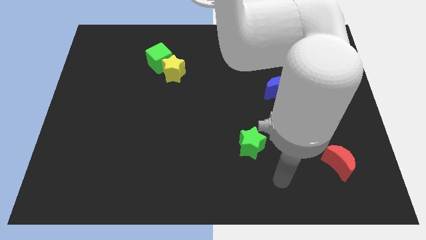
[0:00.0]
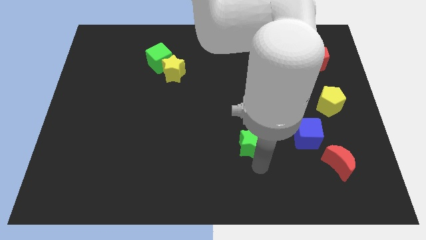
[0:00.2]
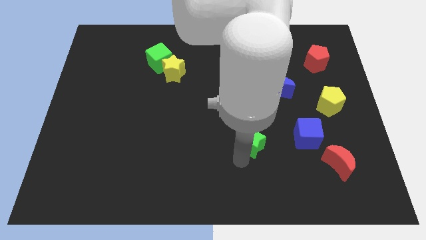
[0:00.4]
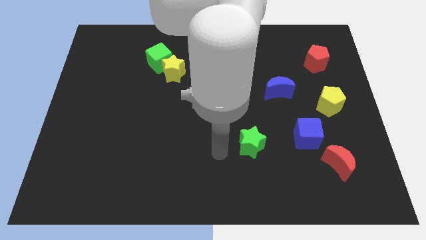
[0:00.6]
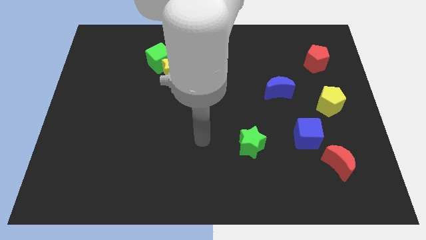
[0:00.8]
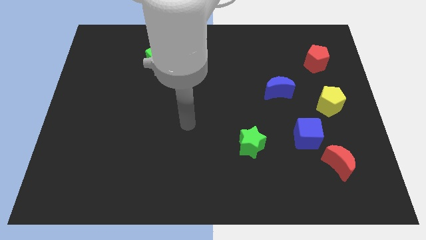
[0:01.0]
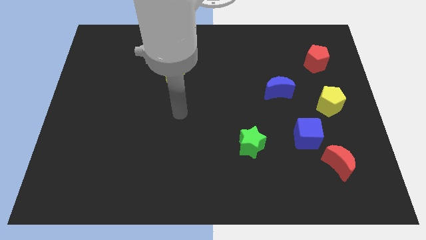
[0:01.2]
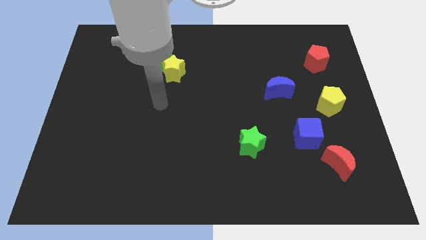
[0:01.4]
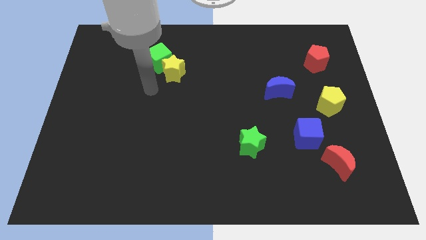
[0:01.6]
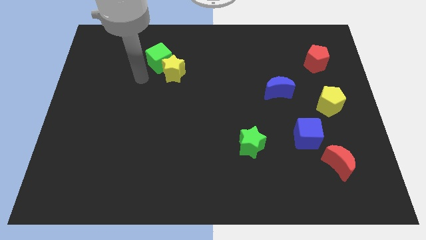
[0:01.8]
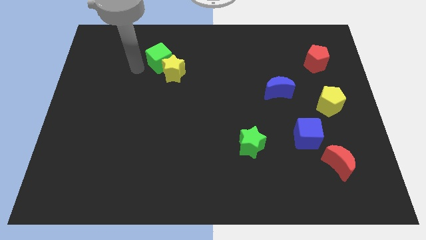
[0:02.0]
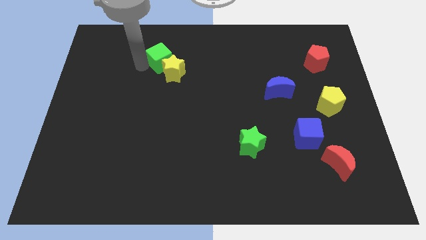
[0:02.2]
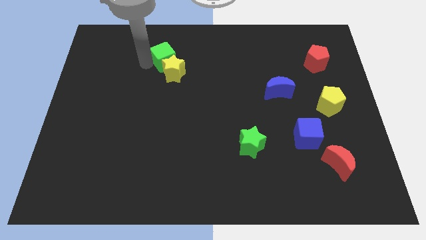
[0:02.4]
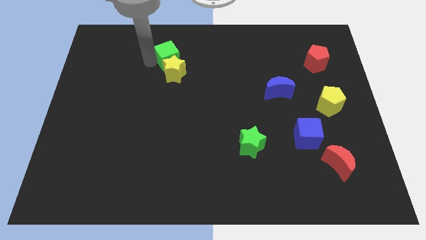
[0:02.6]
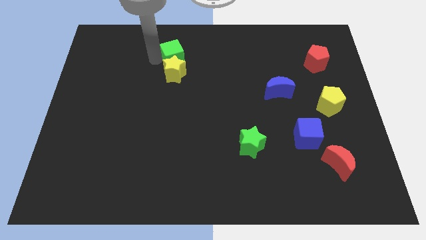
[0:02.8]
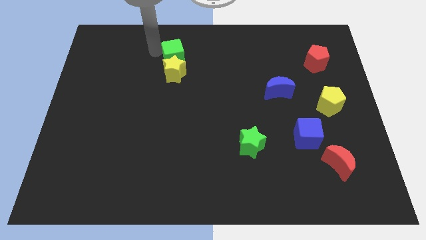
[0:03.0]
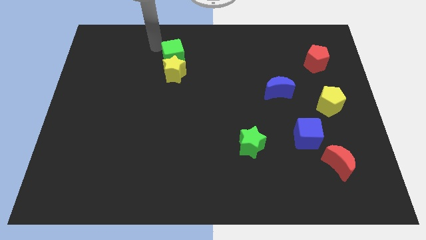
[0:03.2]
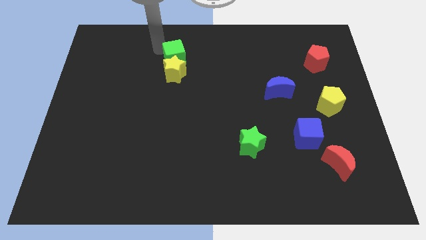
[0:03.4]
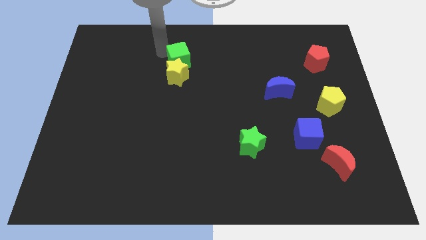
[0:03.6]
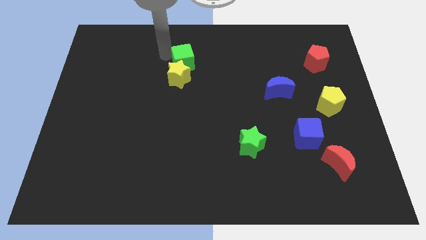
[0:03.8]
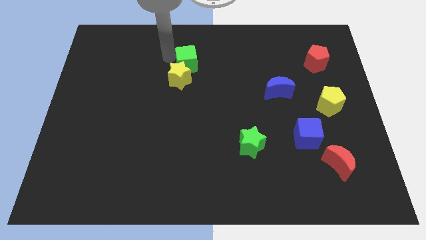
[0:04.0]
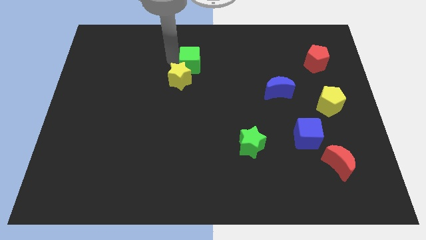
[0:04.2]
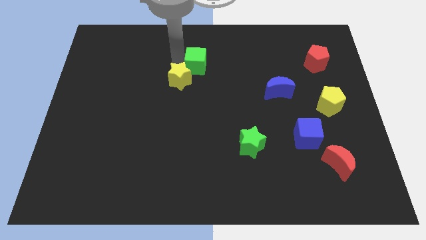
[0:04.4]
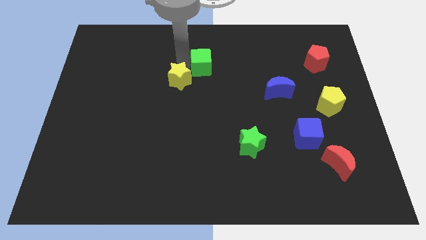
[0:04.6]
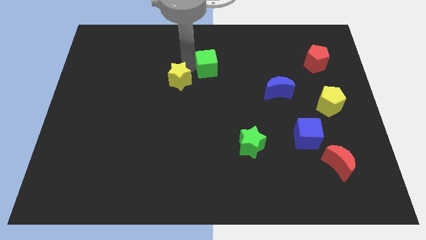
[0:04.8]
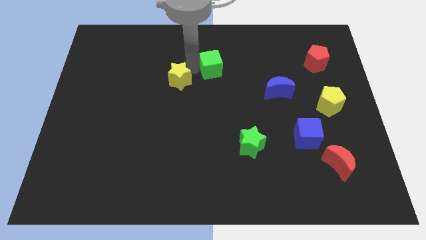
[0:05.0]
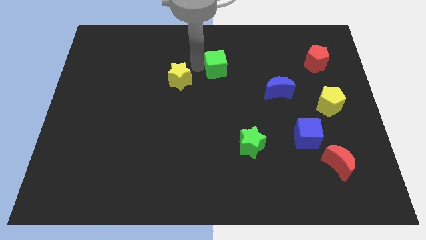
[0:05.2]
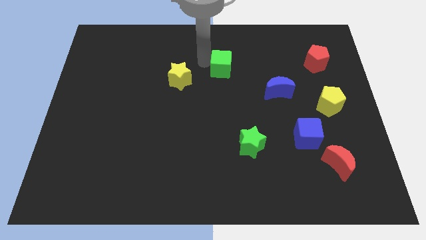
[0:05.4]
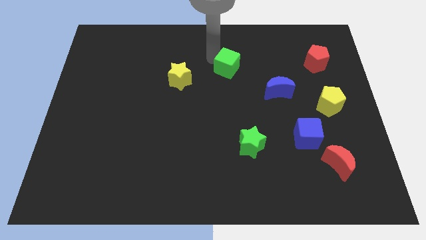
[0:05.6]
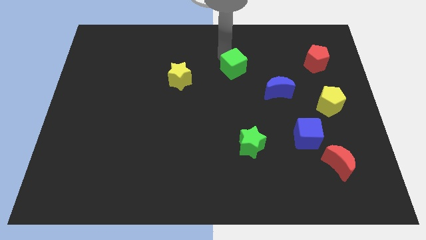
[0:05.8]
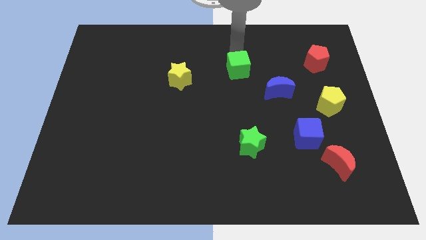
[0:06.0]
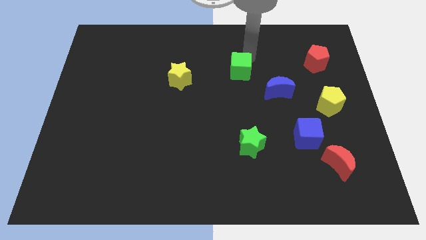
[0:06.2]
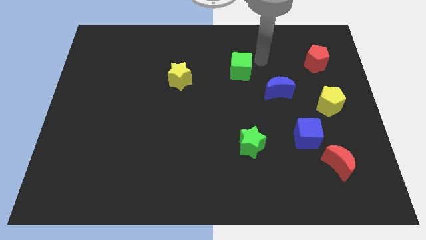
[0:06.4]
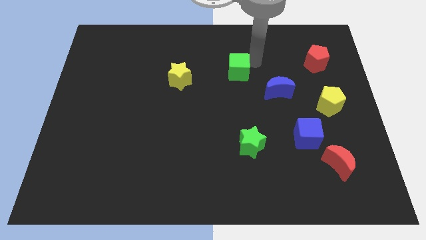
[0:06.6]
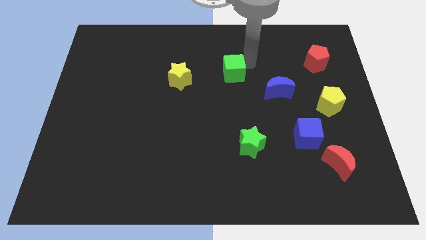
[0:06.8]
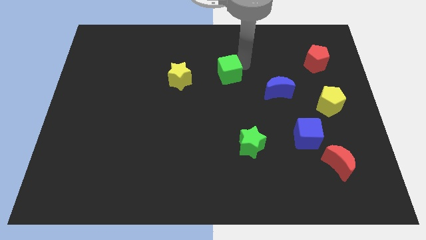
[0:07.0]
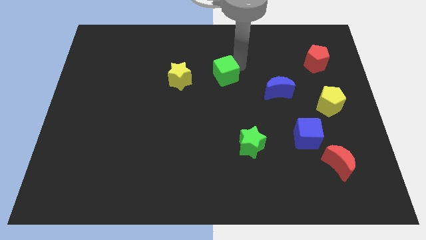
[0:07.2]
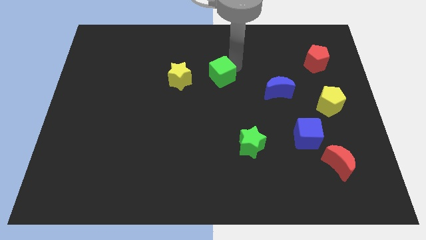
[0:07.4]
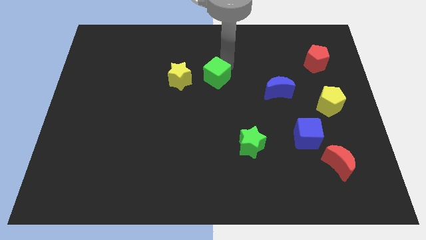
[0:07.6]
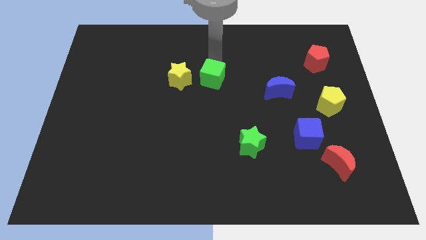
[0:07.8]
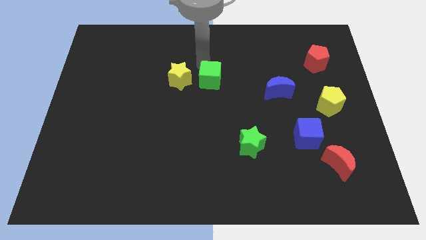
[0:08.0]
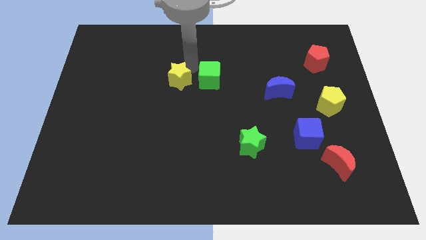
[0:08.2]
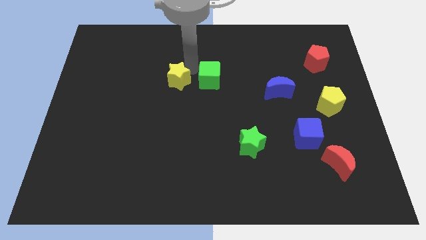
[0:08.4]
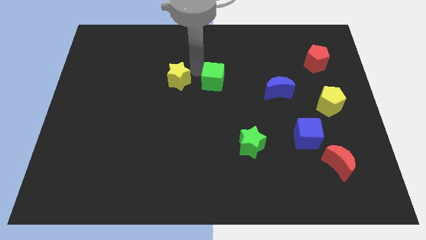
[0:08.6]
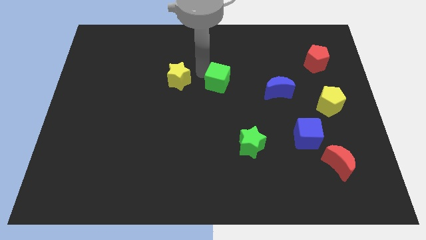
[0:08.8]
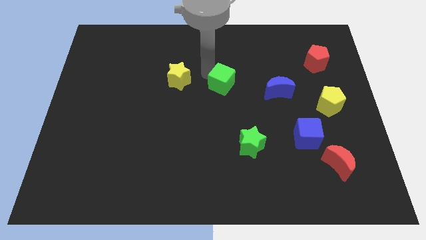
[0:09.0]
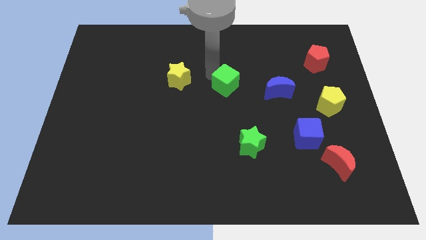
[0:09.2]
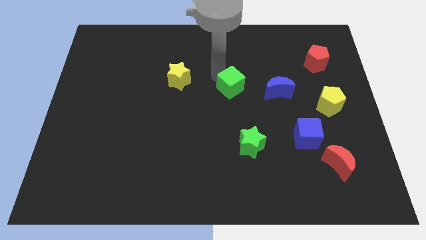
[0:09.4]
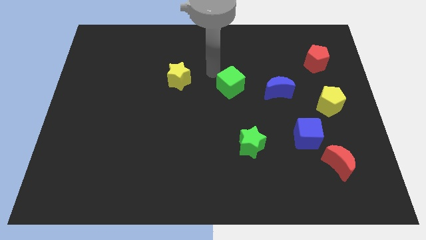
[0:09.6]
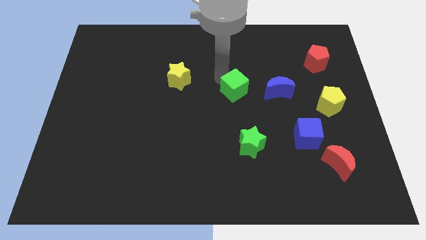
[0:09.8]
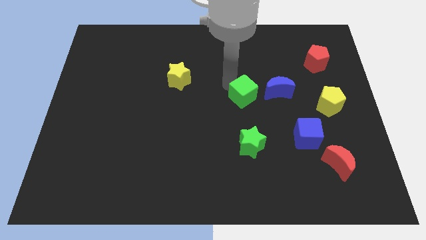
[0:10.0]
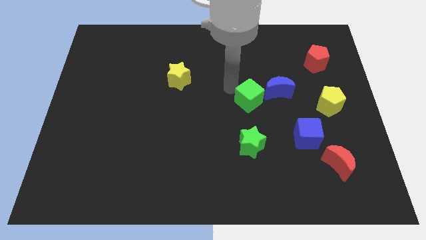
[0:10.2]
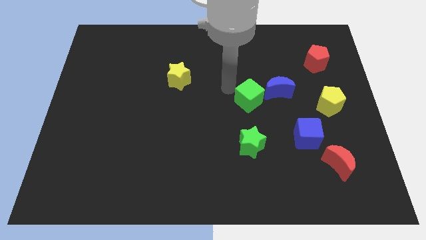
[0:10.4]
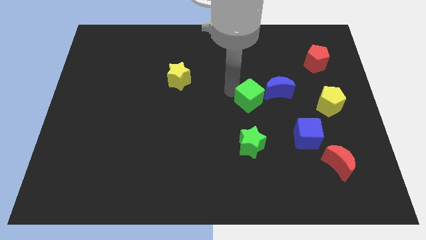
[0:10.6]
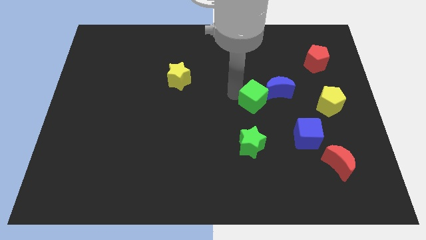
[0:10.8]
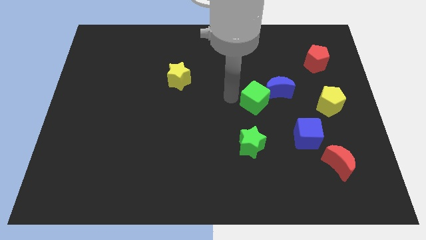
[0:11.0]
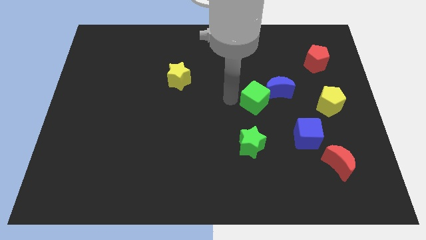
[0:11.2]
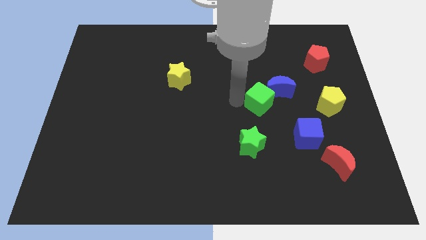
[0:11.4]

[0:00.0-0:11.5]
put the green cube left of the yellow pentagon

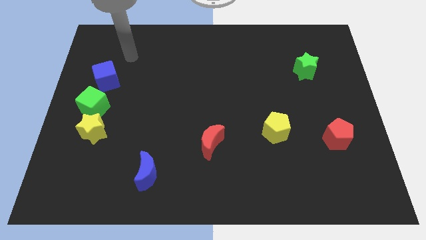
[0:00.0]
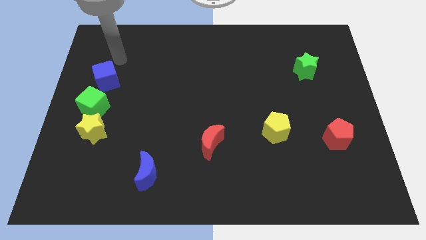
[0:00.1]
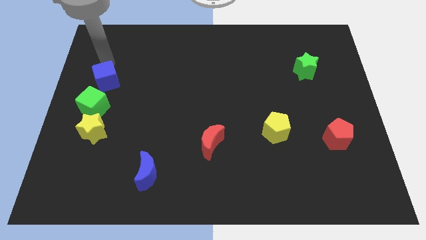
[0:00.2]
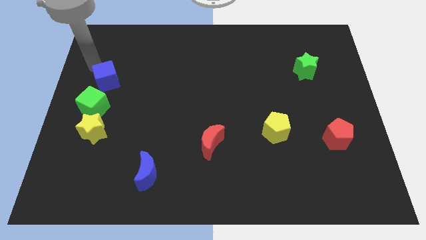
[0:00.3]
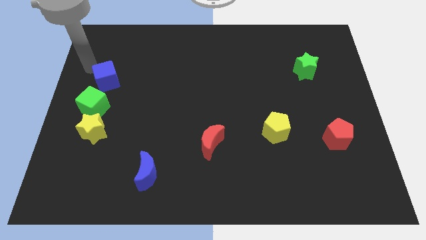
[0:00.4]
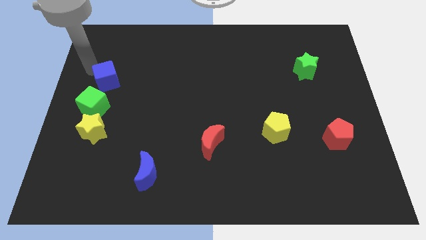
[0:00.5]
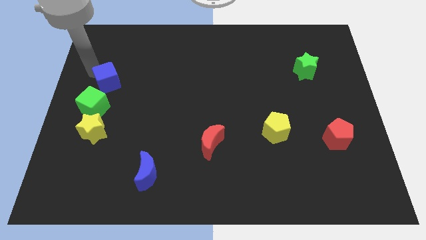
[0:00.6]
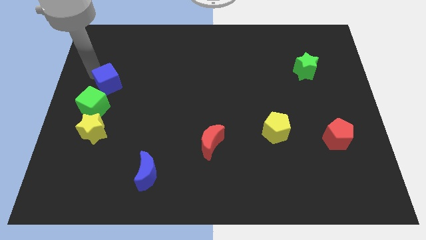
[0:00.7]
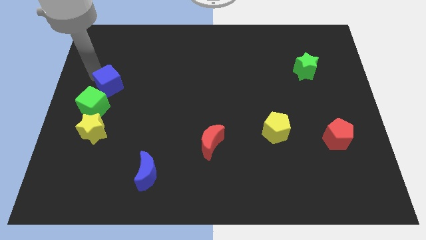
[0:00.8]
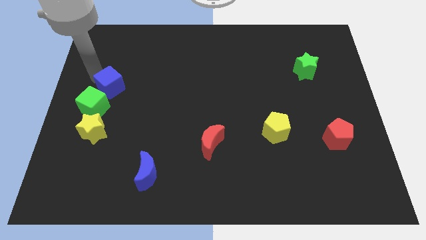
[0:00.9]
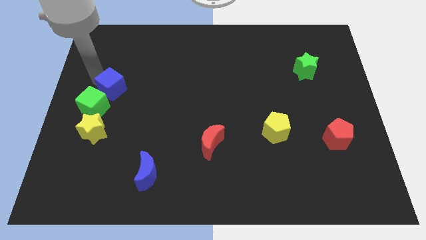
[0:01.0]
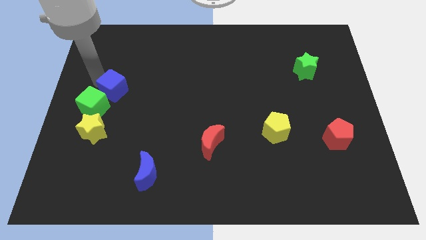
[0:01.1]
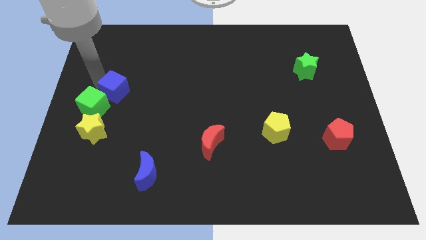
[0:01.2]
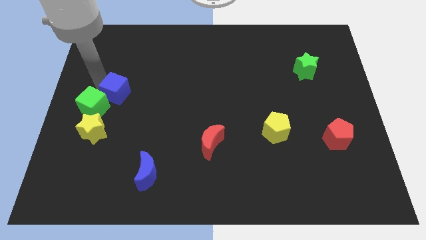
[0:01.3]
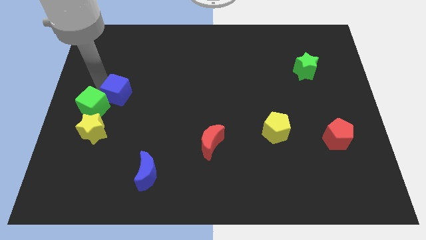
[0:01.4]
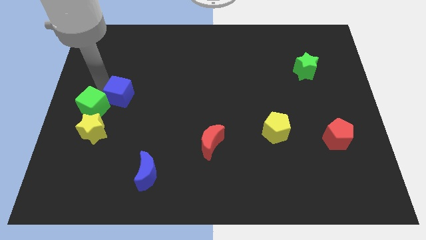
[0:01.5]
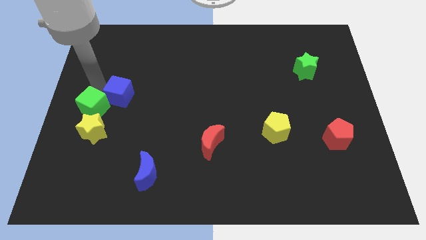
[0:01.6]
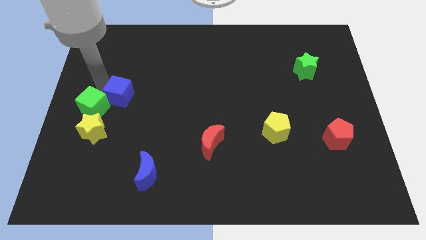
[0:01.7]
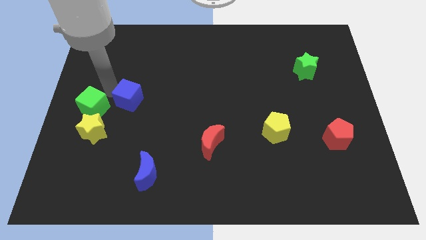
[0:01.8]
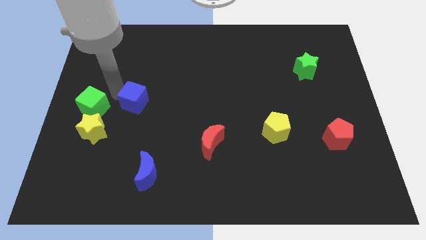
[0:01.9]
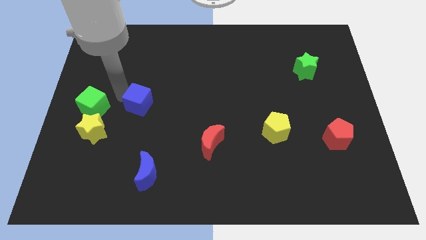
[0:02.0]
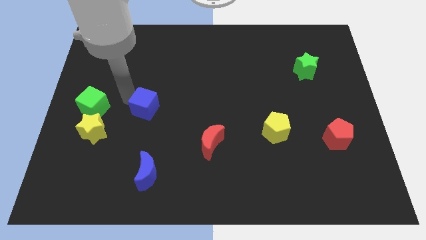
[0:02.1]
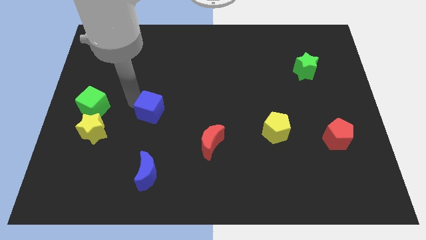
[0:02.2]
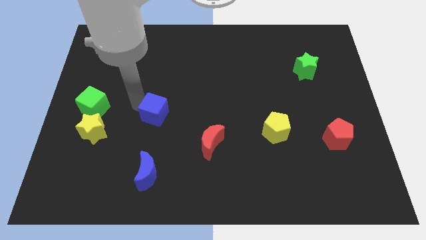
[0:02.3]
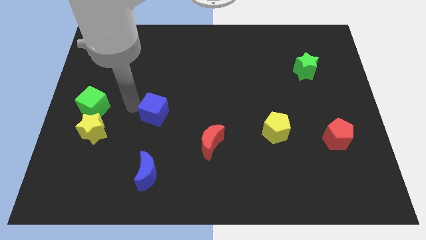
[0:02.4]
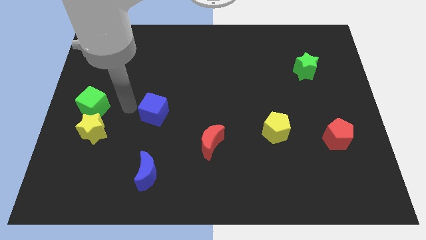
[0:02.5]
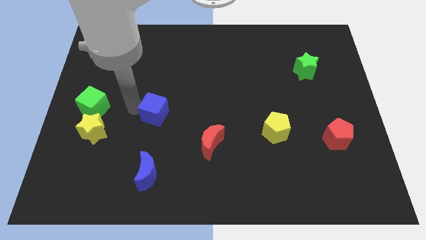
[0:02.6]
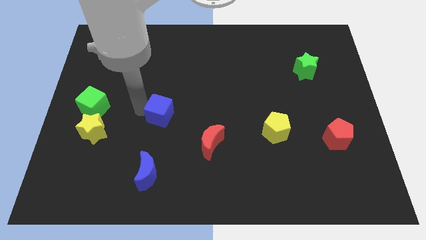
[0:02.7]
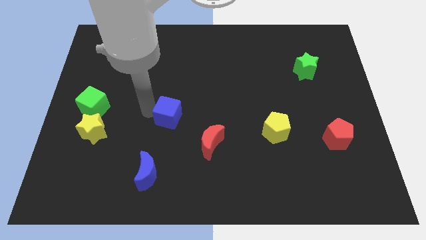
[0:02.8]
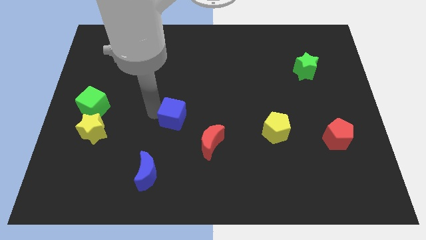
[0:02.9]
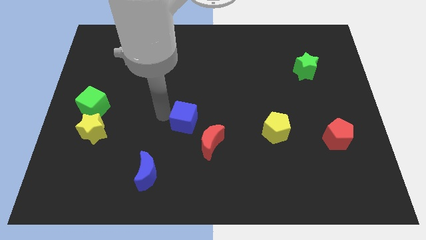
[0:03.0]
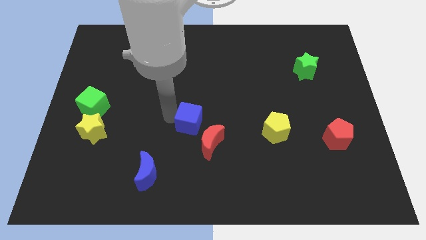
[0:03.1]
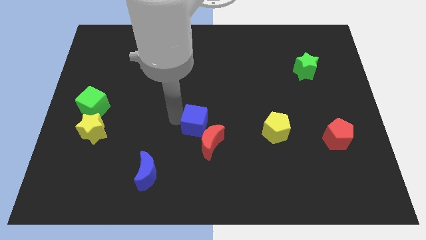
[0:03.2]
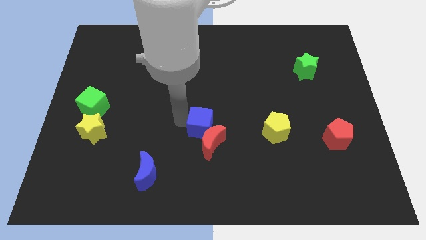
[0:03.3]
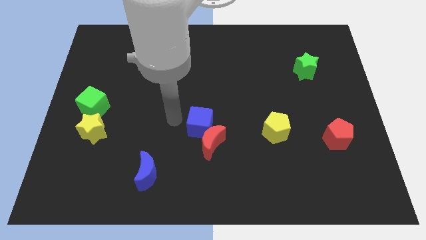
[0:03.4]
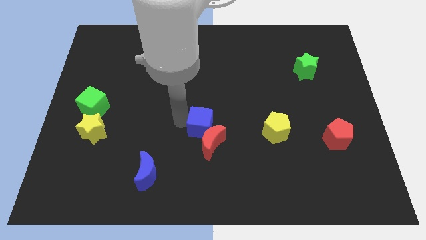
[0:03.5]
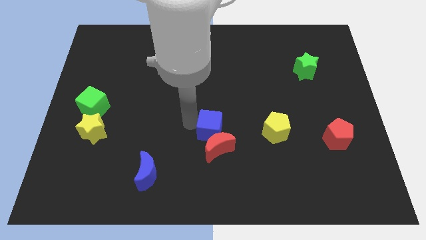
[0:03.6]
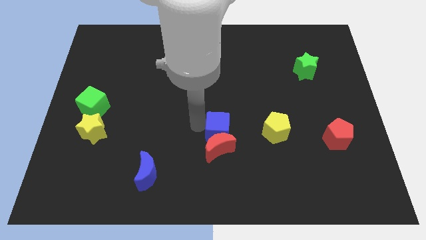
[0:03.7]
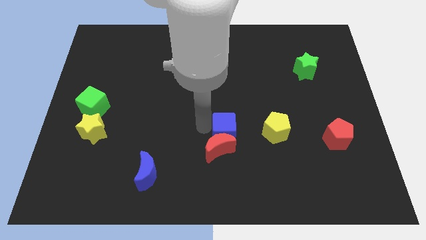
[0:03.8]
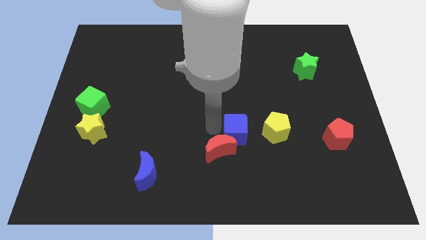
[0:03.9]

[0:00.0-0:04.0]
put the blue cube to the right side of the red moon
